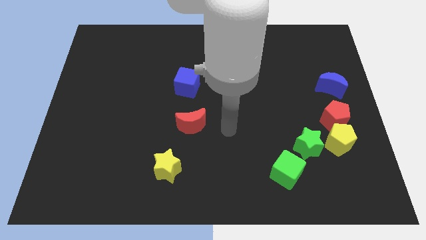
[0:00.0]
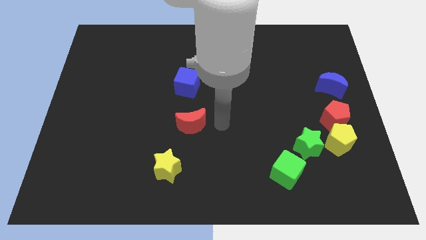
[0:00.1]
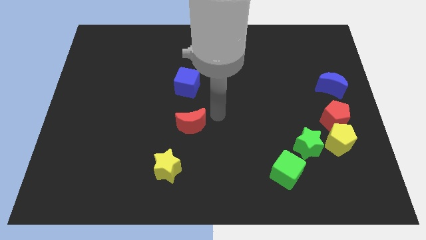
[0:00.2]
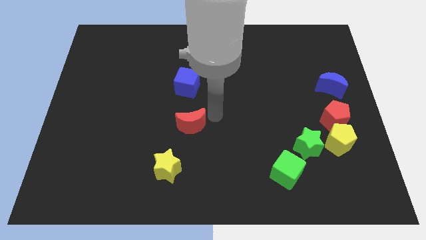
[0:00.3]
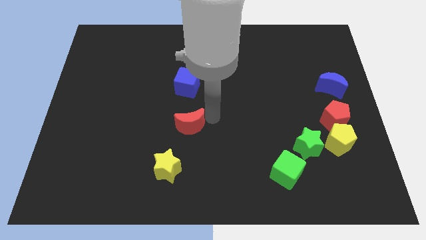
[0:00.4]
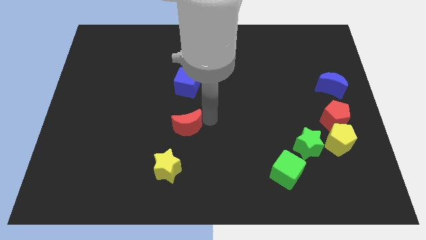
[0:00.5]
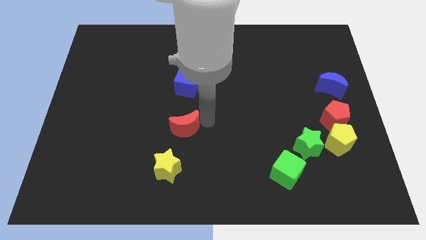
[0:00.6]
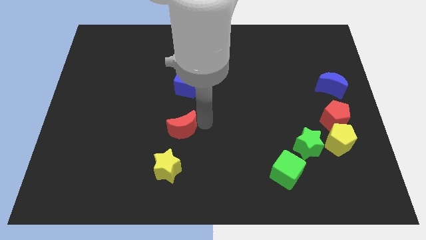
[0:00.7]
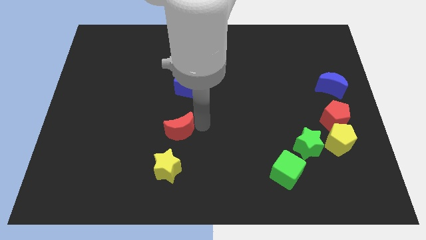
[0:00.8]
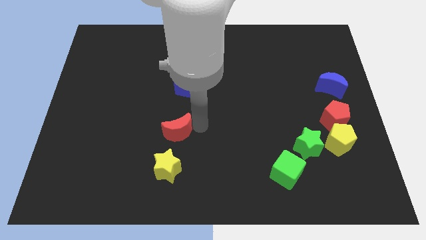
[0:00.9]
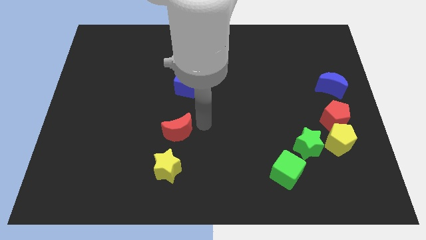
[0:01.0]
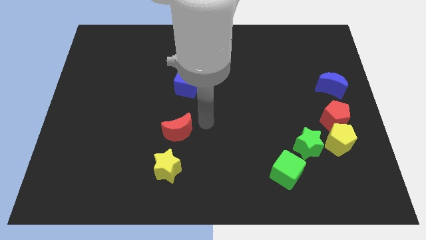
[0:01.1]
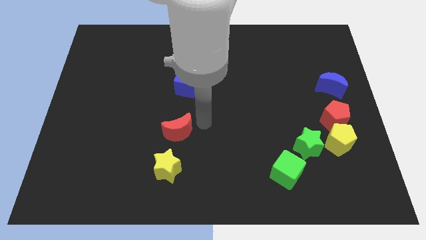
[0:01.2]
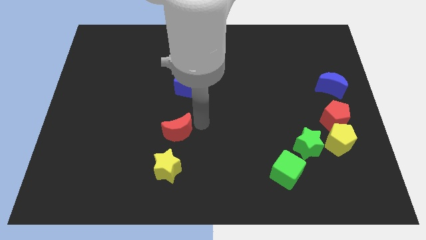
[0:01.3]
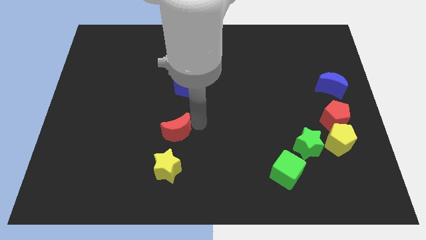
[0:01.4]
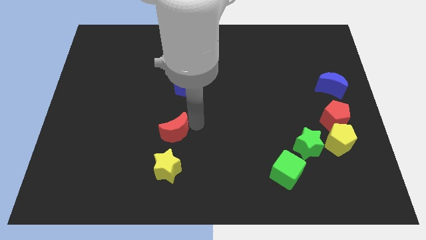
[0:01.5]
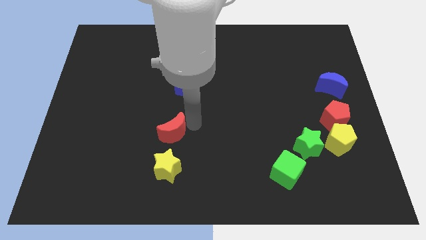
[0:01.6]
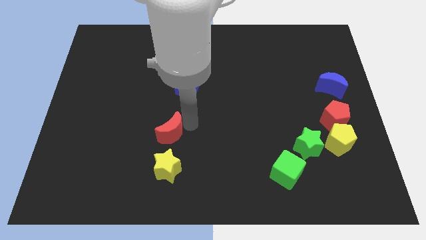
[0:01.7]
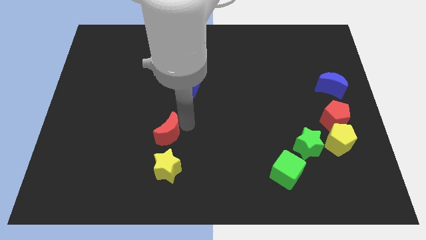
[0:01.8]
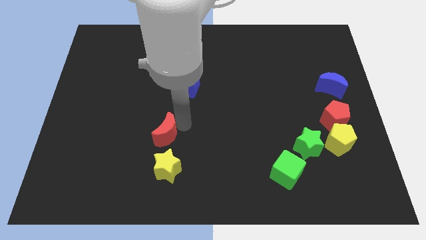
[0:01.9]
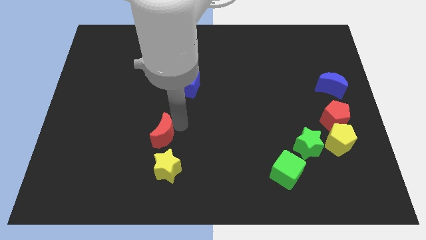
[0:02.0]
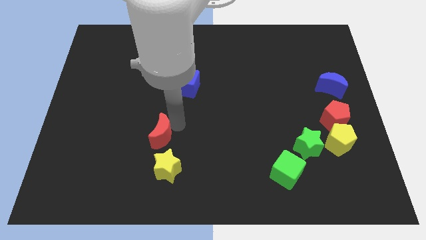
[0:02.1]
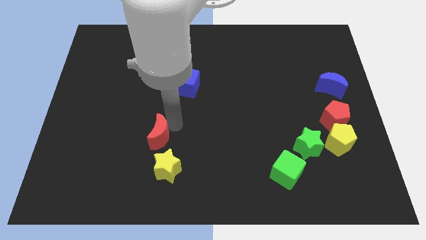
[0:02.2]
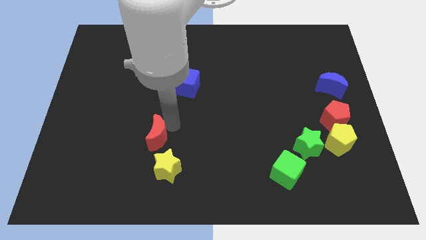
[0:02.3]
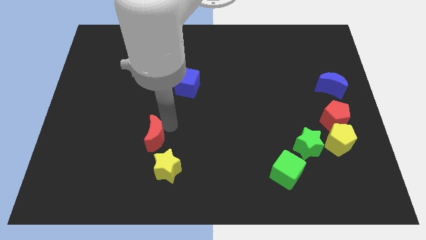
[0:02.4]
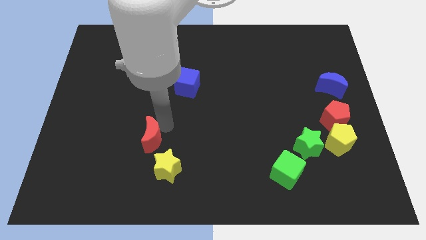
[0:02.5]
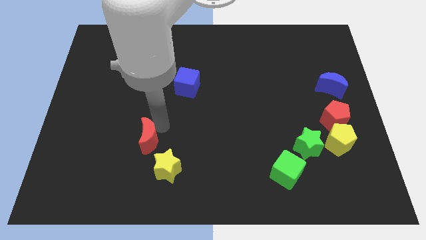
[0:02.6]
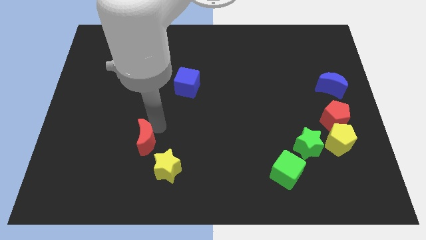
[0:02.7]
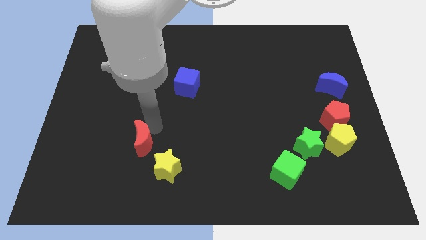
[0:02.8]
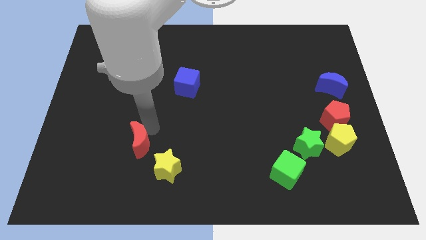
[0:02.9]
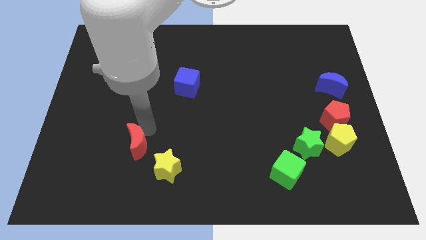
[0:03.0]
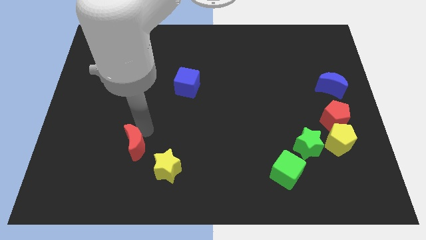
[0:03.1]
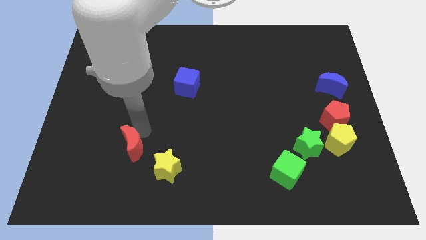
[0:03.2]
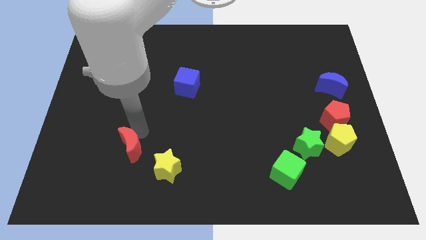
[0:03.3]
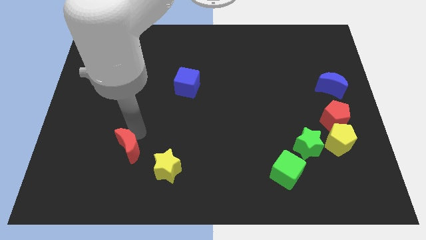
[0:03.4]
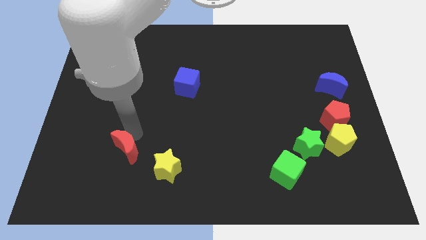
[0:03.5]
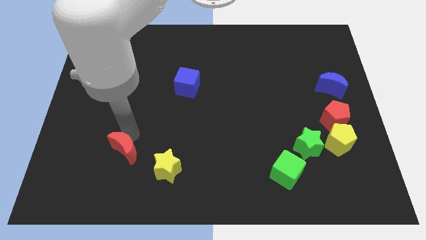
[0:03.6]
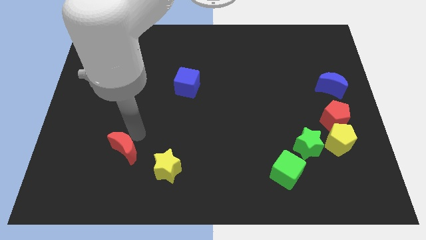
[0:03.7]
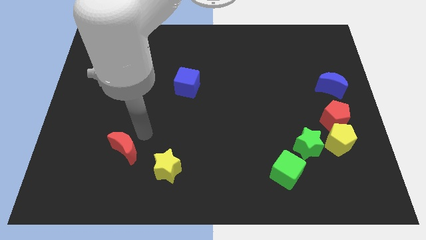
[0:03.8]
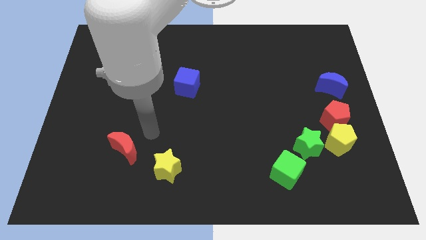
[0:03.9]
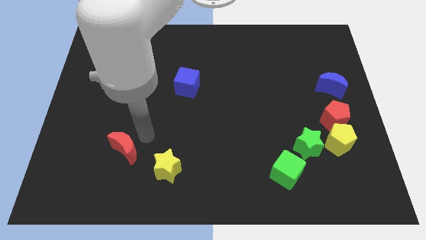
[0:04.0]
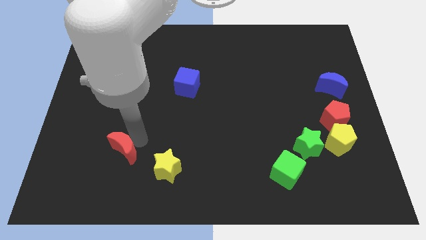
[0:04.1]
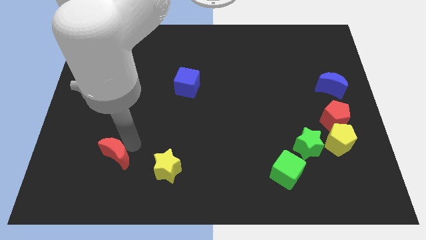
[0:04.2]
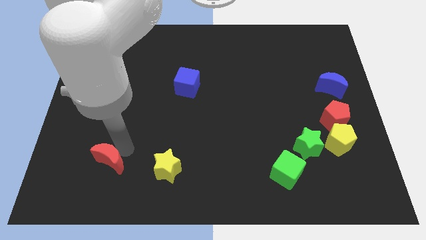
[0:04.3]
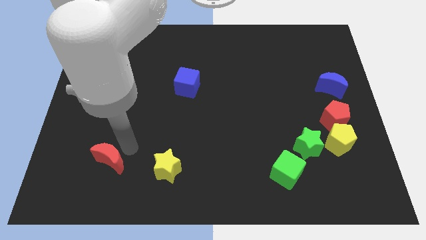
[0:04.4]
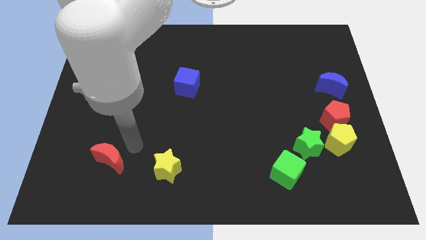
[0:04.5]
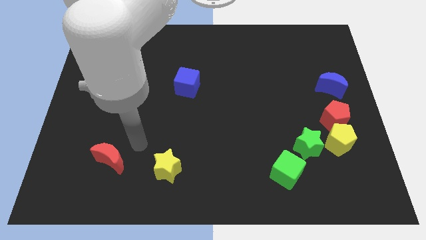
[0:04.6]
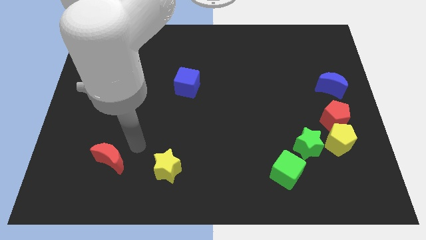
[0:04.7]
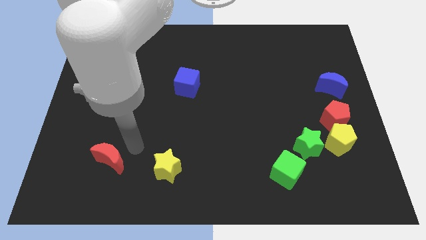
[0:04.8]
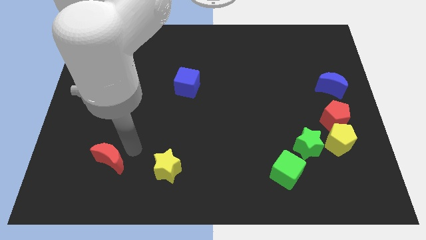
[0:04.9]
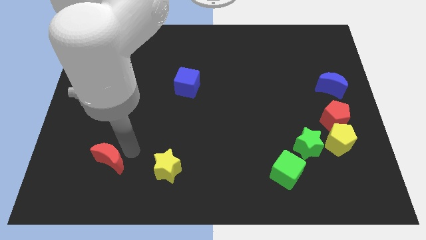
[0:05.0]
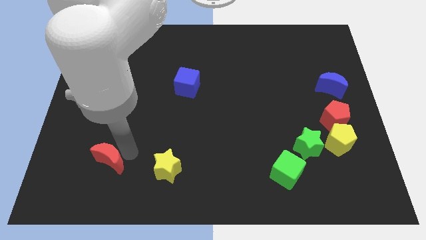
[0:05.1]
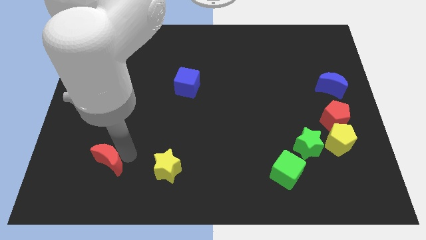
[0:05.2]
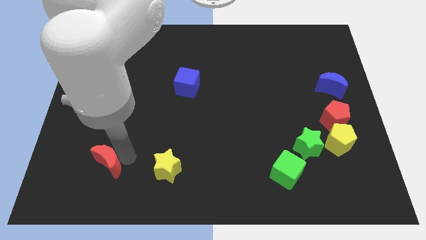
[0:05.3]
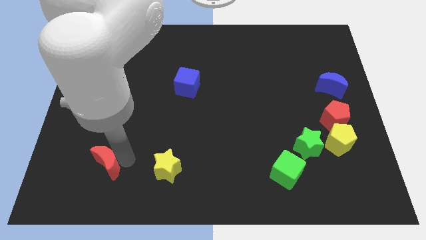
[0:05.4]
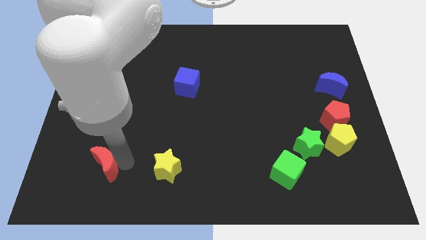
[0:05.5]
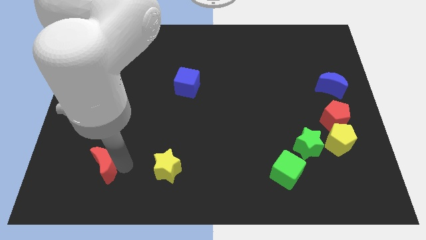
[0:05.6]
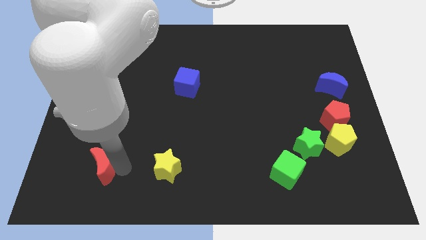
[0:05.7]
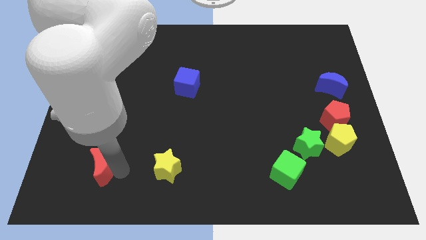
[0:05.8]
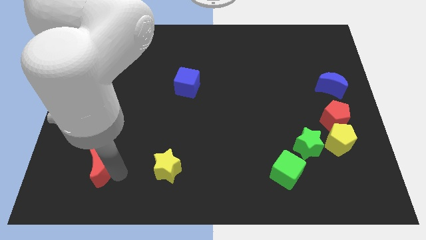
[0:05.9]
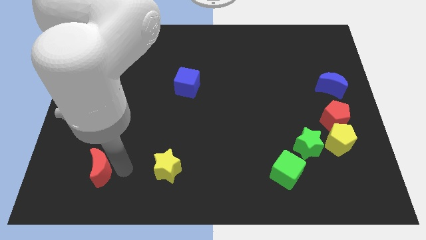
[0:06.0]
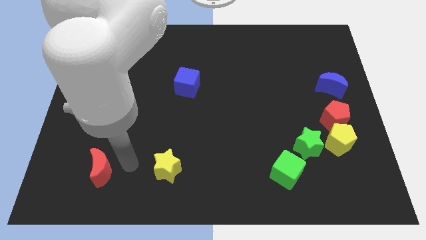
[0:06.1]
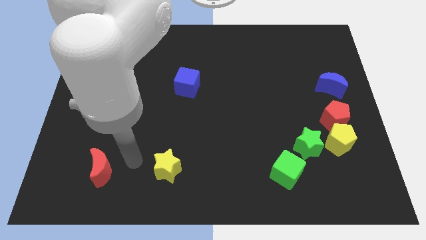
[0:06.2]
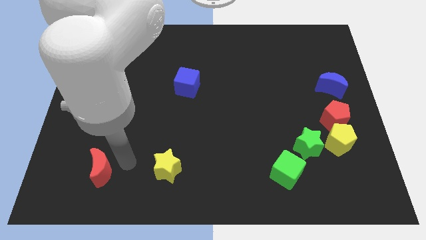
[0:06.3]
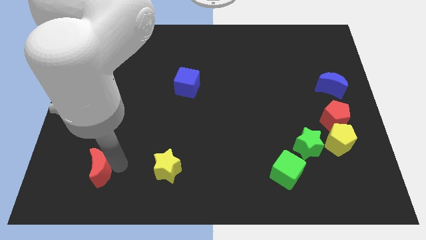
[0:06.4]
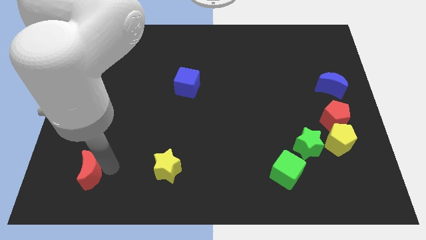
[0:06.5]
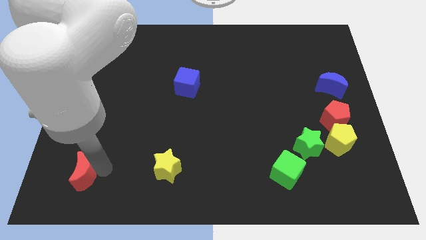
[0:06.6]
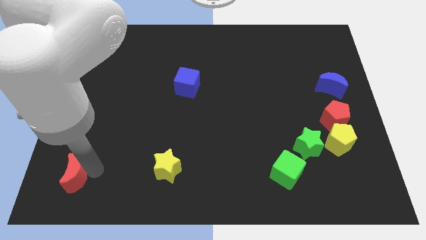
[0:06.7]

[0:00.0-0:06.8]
slide the red moon to the bottom left corner
